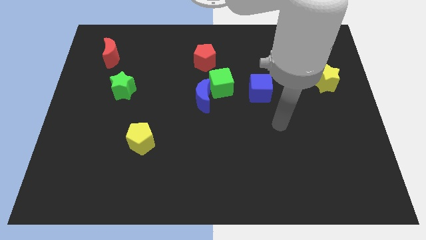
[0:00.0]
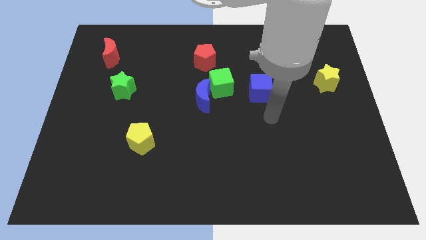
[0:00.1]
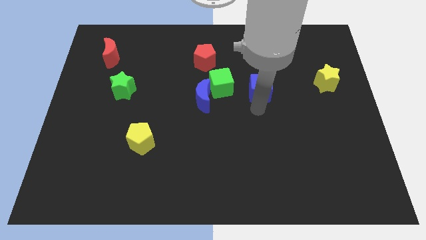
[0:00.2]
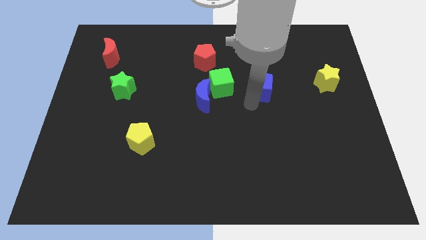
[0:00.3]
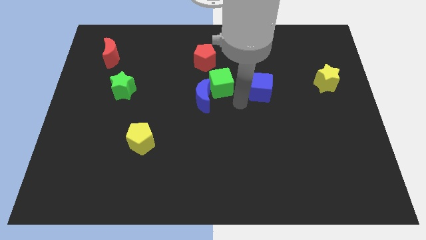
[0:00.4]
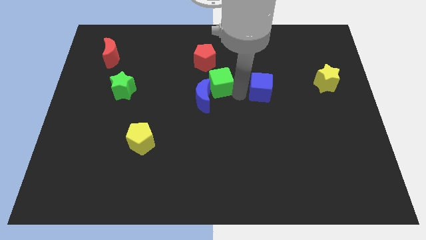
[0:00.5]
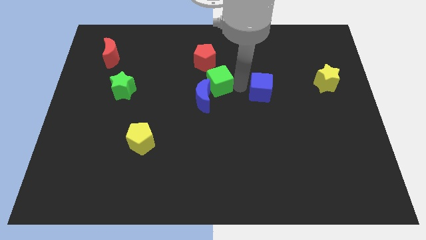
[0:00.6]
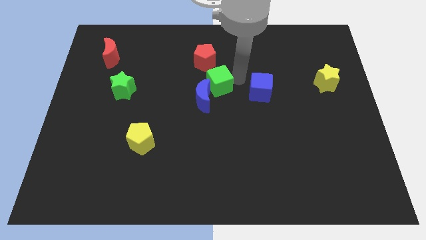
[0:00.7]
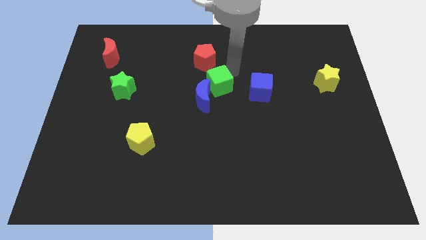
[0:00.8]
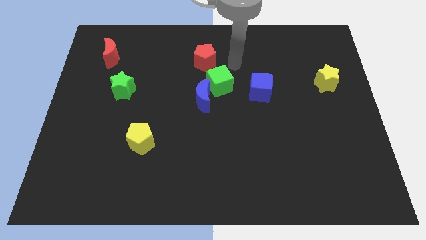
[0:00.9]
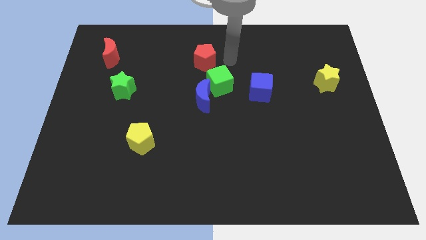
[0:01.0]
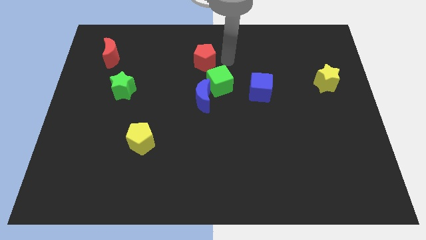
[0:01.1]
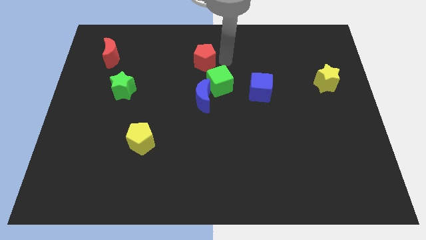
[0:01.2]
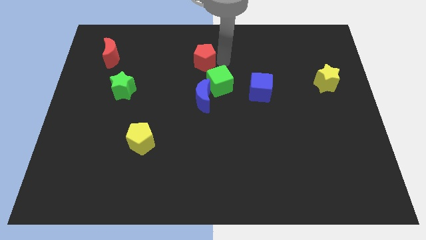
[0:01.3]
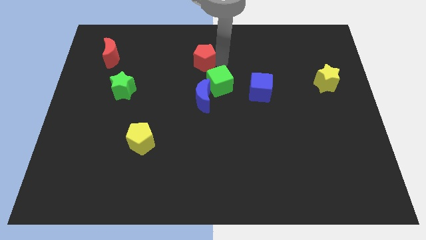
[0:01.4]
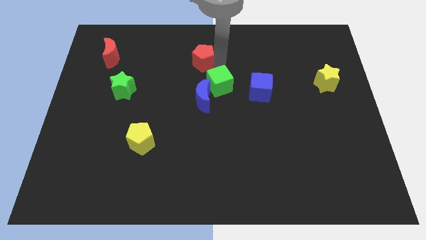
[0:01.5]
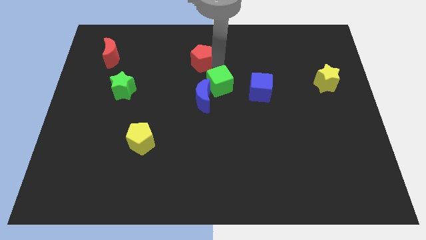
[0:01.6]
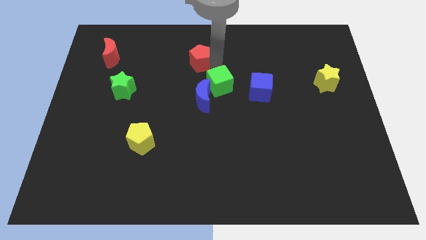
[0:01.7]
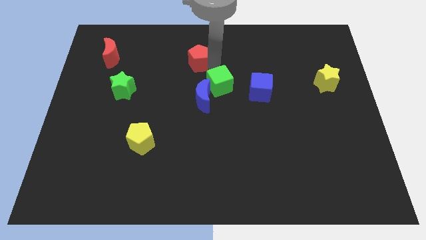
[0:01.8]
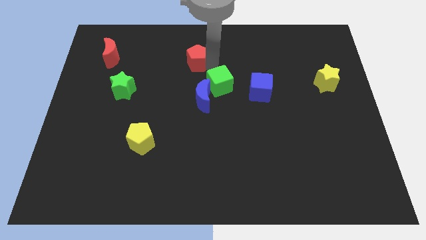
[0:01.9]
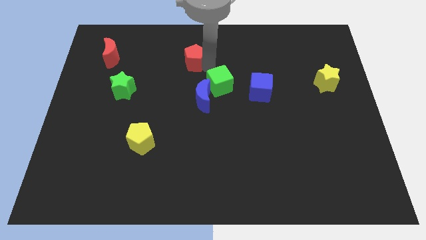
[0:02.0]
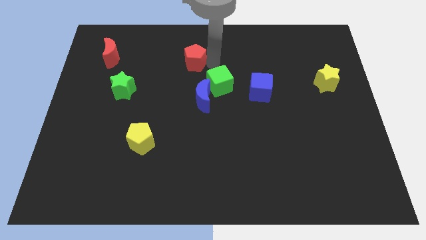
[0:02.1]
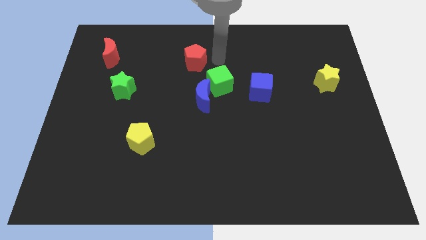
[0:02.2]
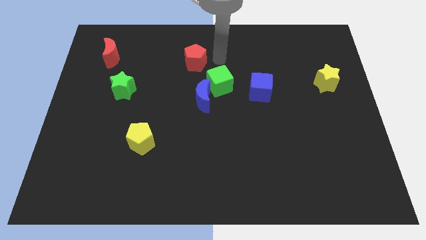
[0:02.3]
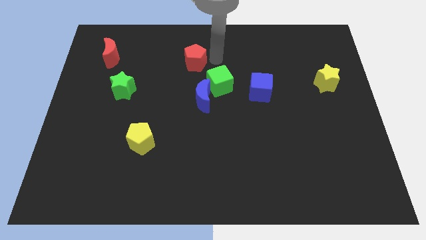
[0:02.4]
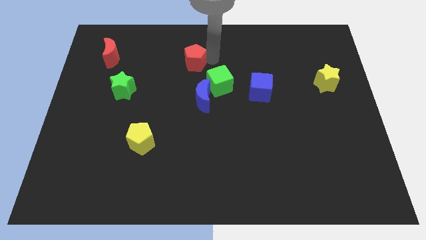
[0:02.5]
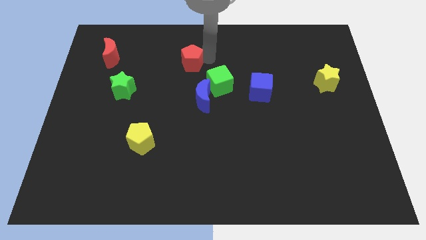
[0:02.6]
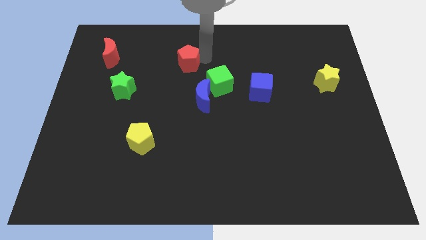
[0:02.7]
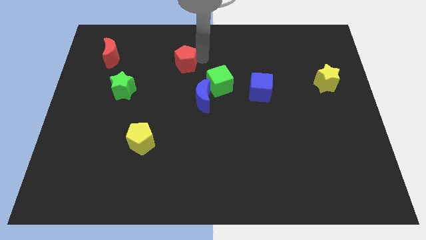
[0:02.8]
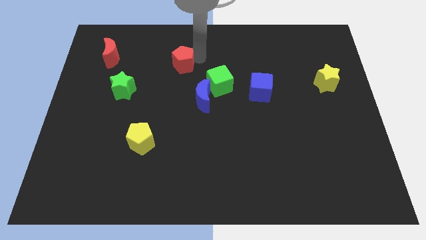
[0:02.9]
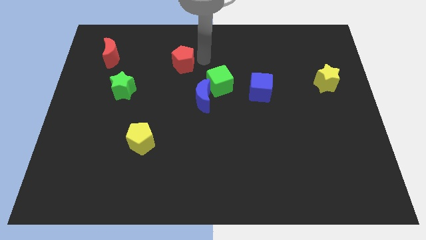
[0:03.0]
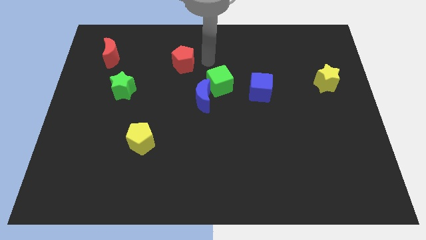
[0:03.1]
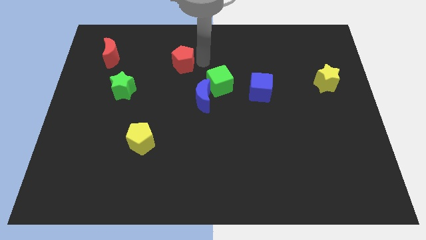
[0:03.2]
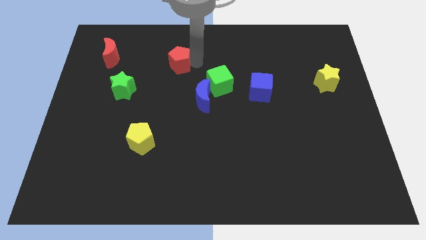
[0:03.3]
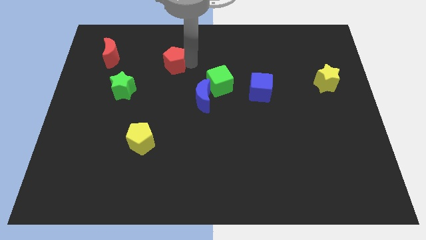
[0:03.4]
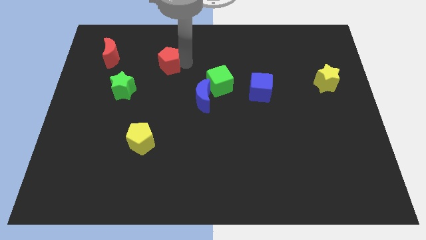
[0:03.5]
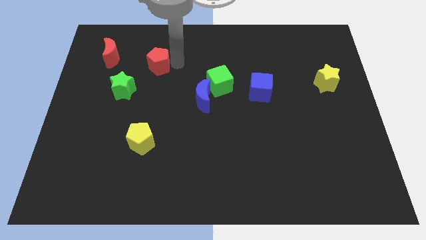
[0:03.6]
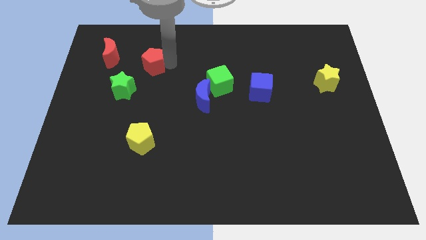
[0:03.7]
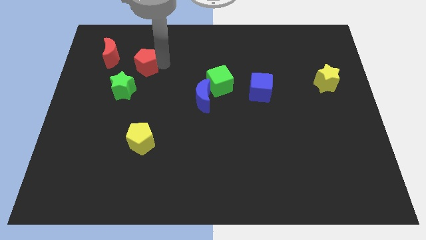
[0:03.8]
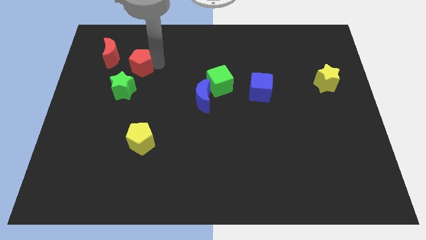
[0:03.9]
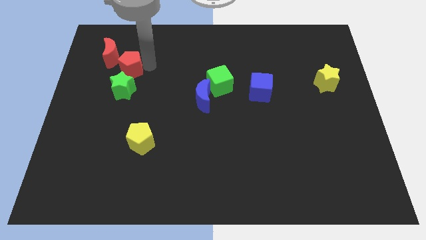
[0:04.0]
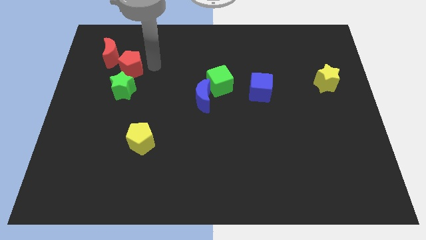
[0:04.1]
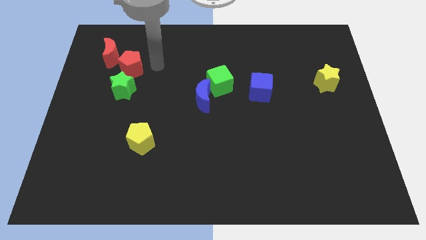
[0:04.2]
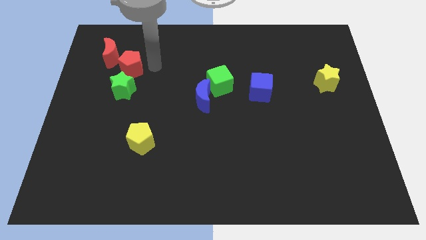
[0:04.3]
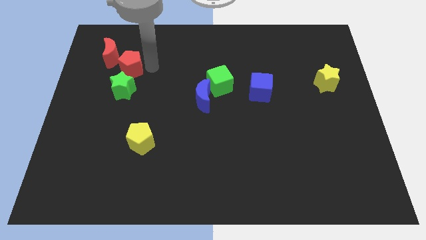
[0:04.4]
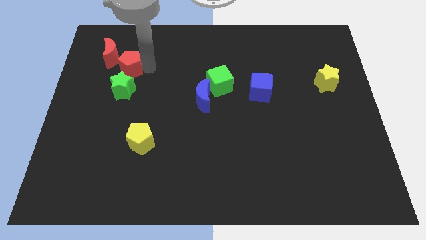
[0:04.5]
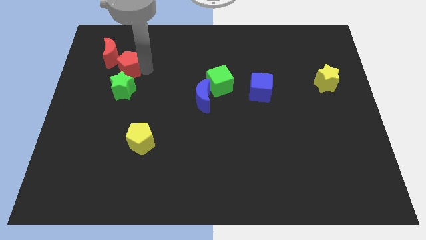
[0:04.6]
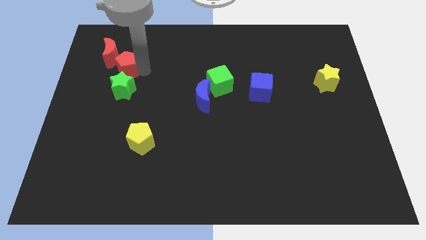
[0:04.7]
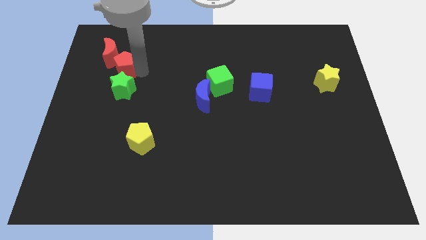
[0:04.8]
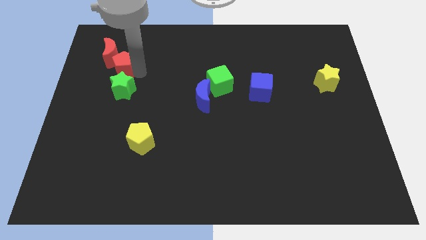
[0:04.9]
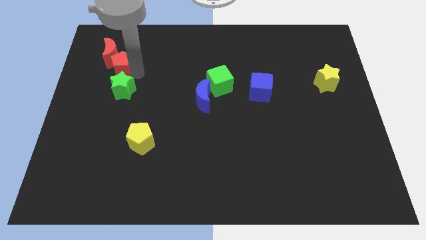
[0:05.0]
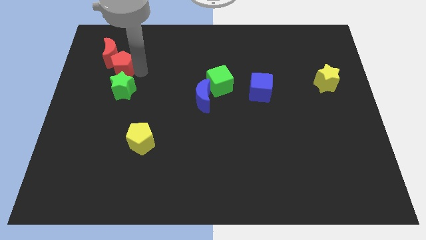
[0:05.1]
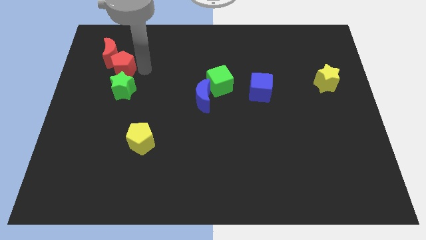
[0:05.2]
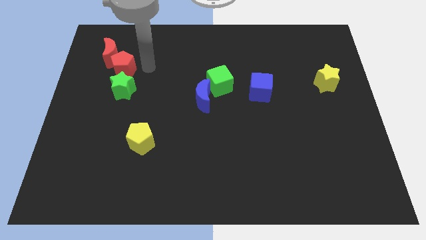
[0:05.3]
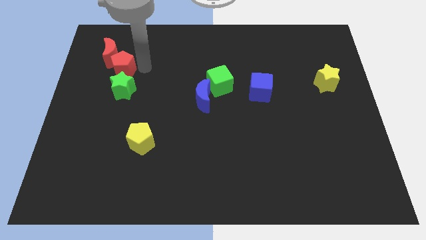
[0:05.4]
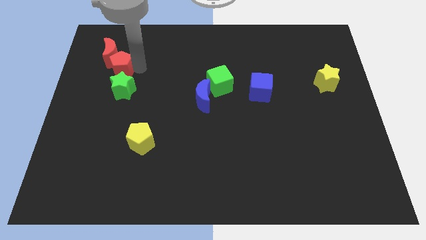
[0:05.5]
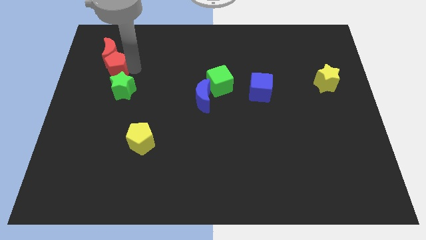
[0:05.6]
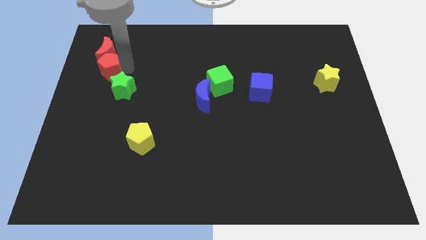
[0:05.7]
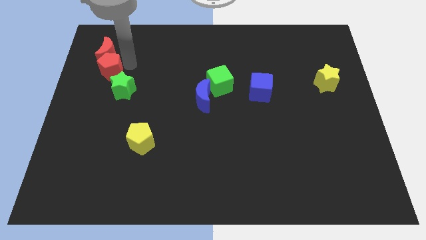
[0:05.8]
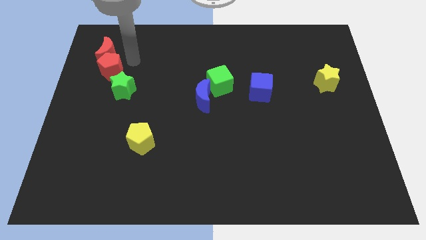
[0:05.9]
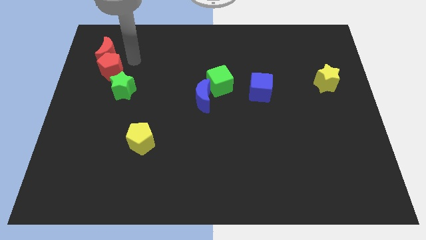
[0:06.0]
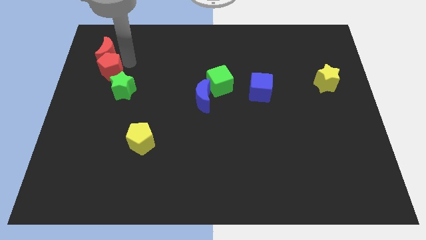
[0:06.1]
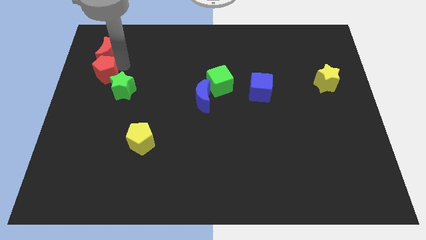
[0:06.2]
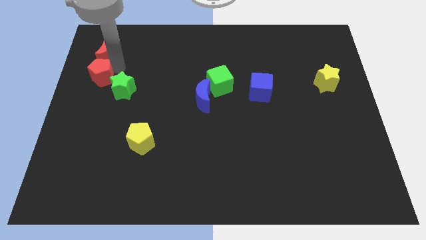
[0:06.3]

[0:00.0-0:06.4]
put the red pentagon to the left side of the board
